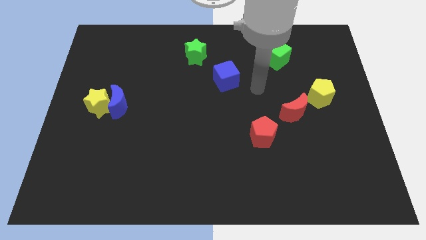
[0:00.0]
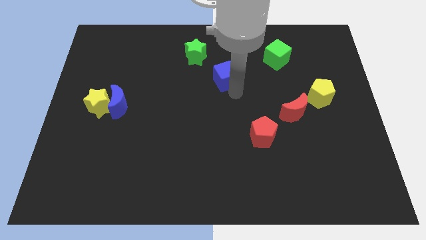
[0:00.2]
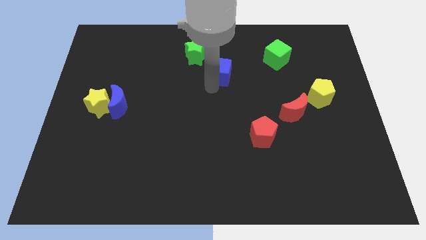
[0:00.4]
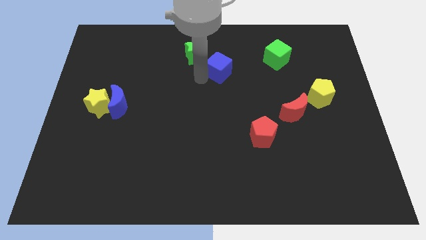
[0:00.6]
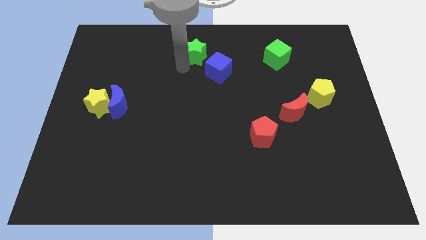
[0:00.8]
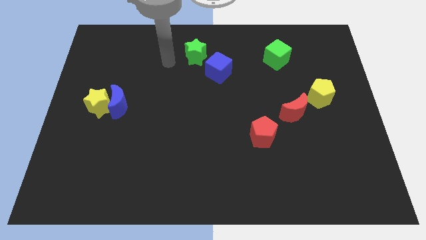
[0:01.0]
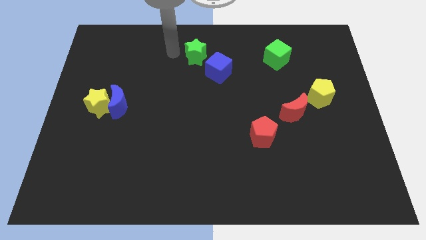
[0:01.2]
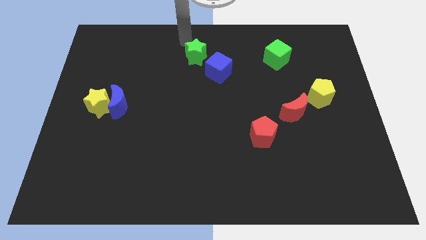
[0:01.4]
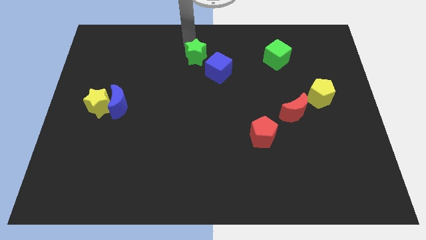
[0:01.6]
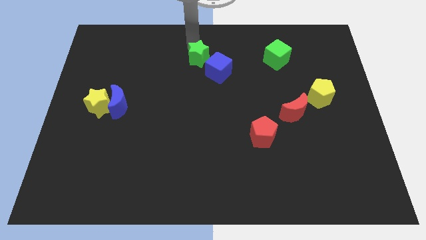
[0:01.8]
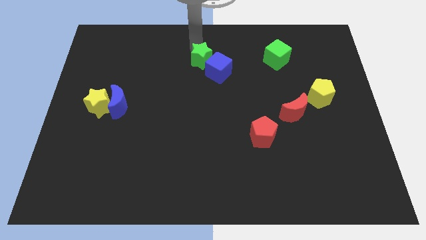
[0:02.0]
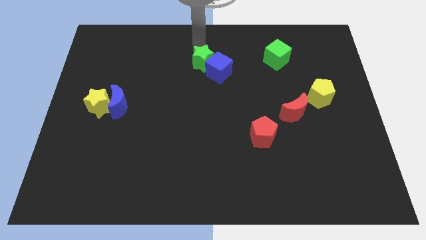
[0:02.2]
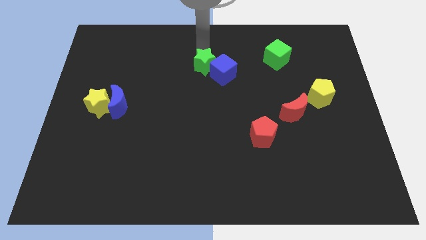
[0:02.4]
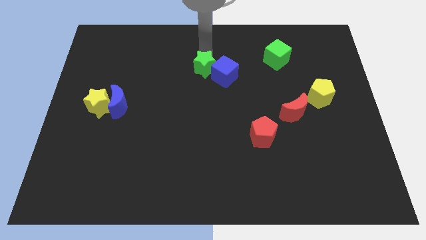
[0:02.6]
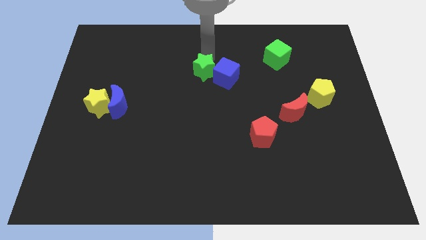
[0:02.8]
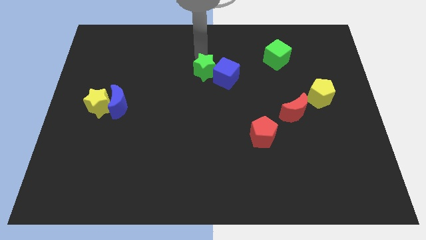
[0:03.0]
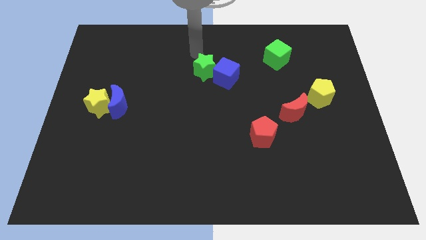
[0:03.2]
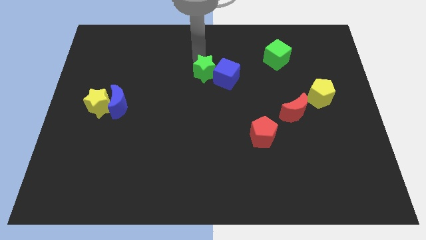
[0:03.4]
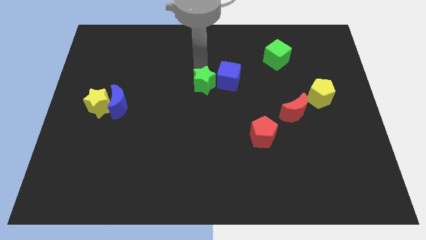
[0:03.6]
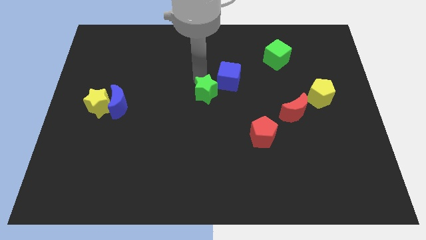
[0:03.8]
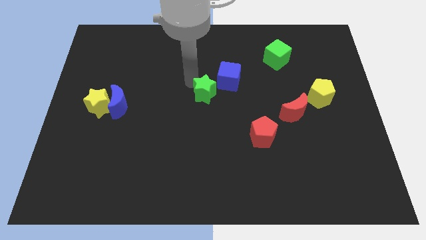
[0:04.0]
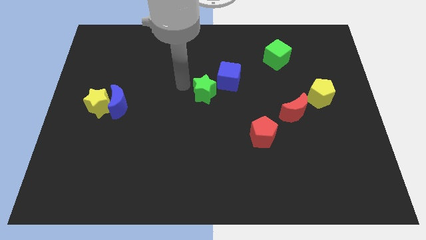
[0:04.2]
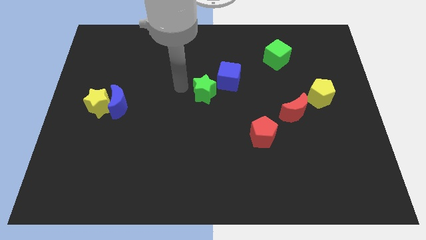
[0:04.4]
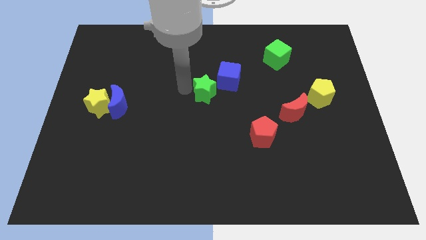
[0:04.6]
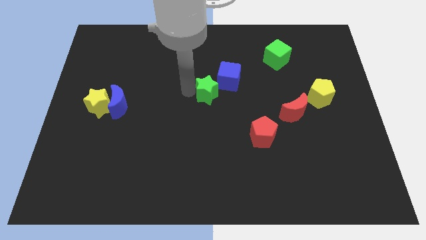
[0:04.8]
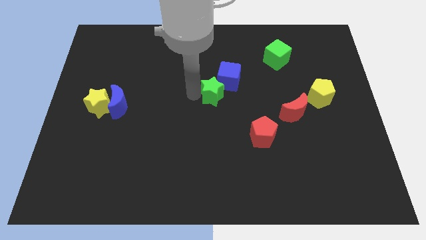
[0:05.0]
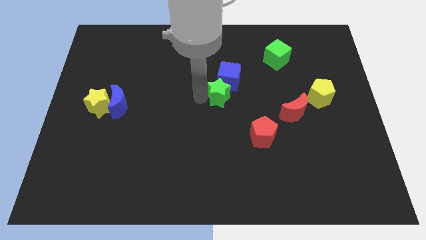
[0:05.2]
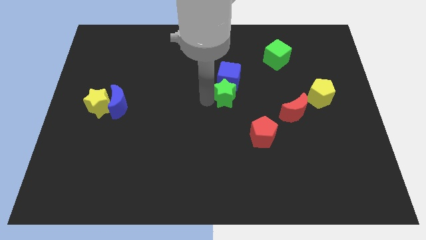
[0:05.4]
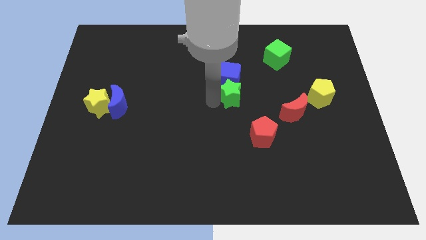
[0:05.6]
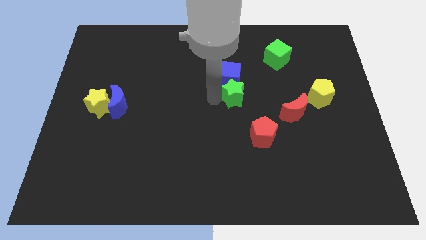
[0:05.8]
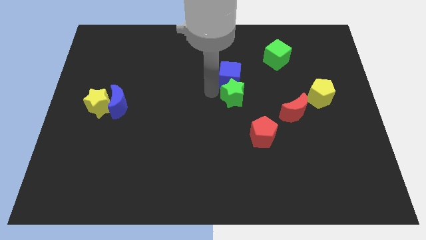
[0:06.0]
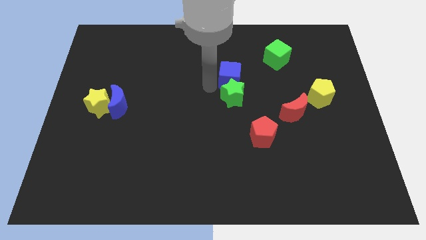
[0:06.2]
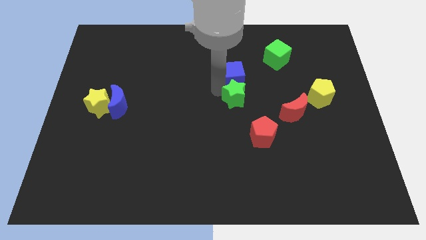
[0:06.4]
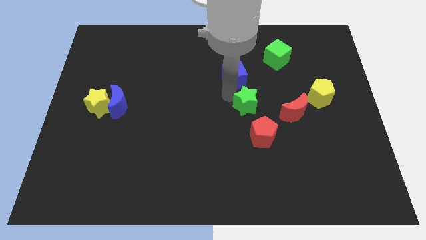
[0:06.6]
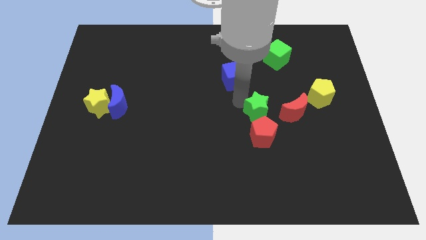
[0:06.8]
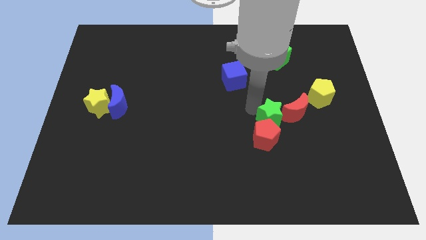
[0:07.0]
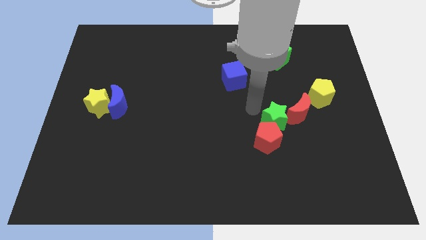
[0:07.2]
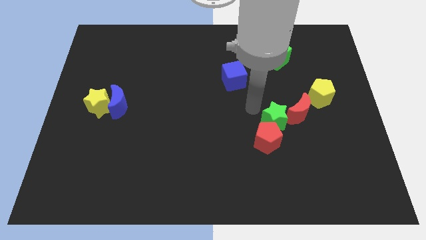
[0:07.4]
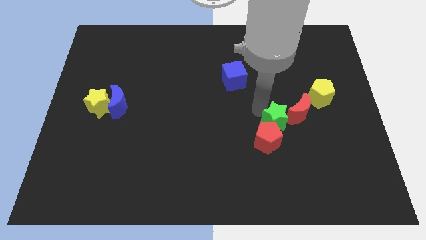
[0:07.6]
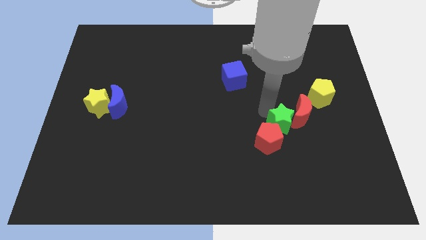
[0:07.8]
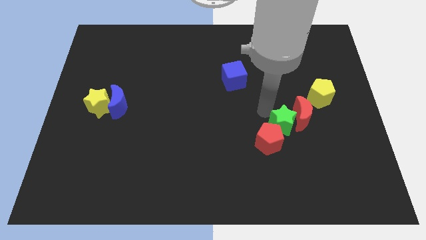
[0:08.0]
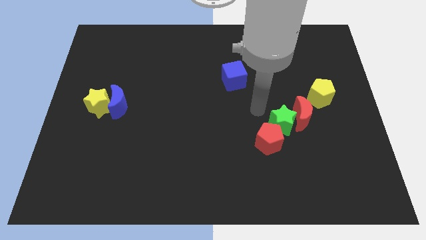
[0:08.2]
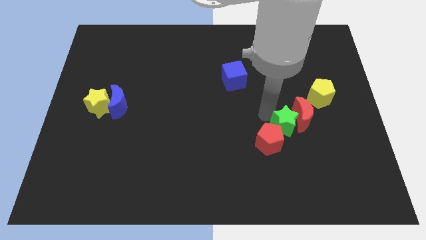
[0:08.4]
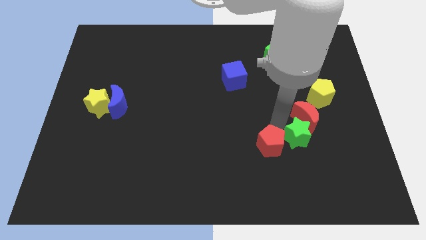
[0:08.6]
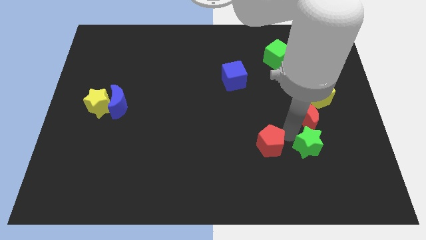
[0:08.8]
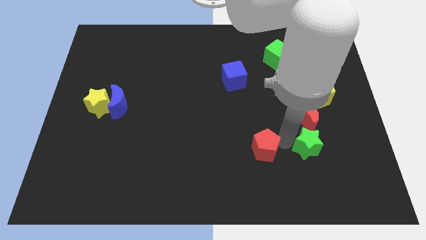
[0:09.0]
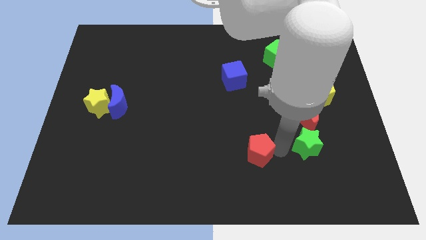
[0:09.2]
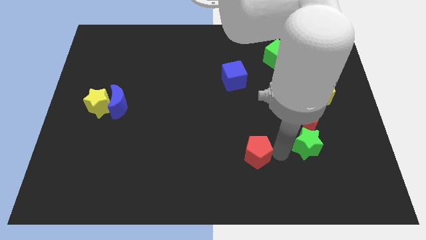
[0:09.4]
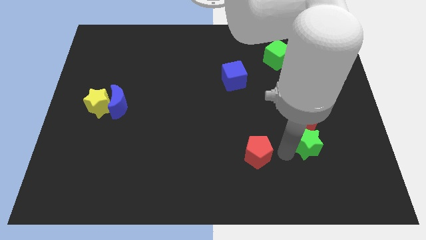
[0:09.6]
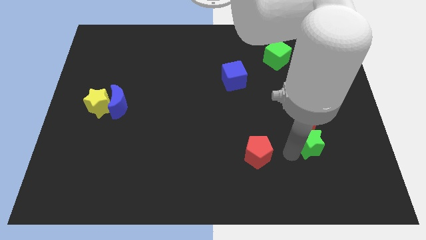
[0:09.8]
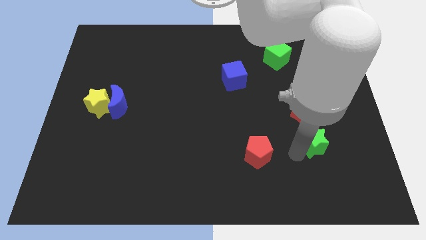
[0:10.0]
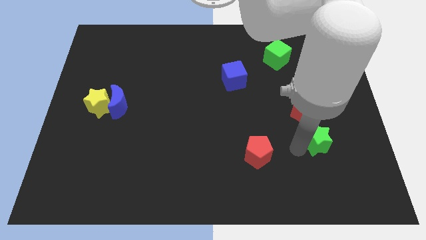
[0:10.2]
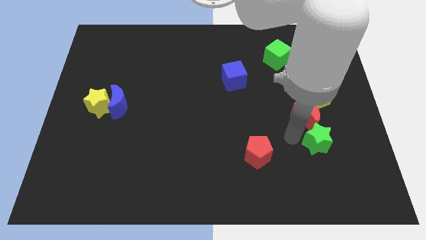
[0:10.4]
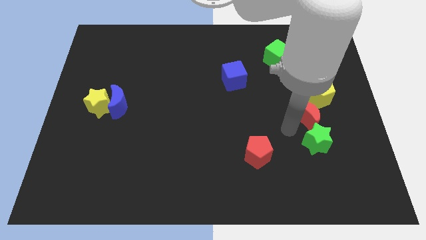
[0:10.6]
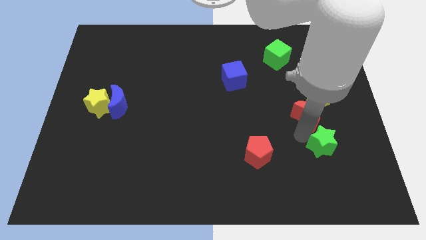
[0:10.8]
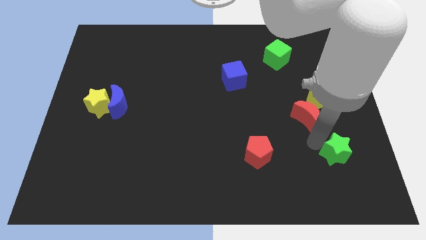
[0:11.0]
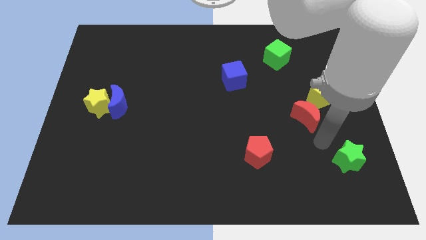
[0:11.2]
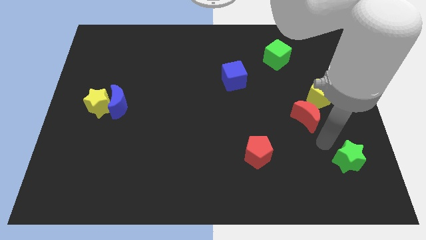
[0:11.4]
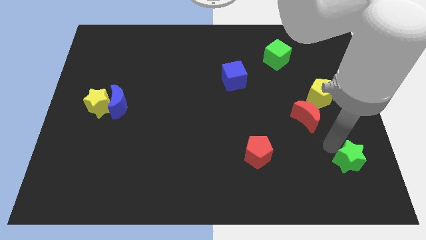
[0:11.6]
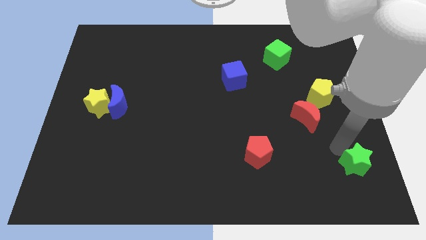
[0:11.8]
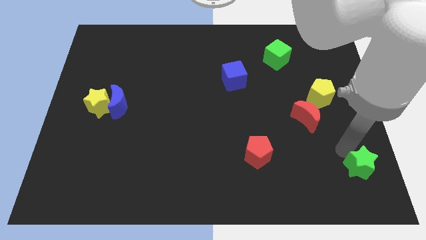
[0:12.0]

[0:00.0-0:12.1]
slide the green star to the bottom right corner

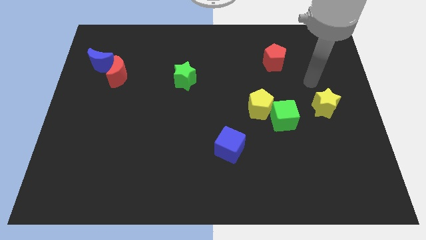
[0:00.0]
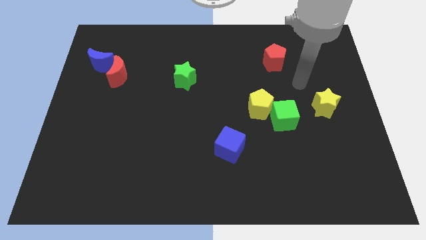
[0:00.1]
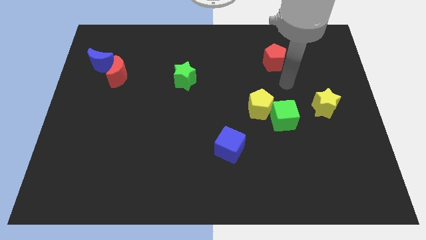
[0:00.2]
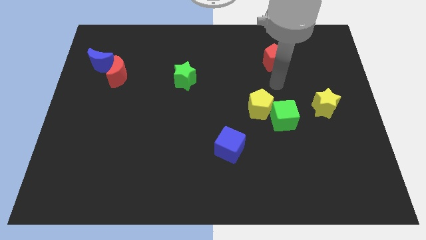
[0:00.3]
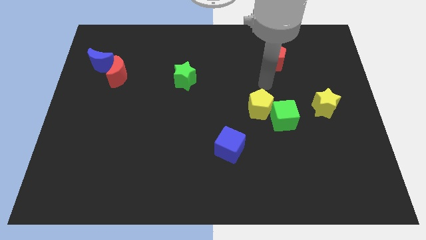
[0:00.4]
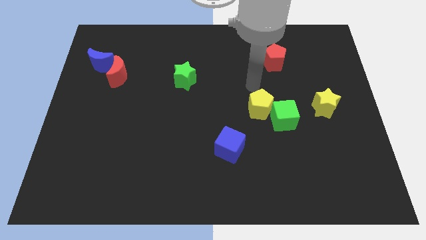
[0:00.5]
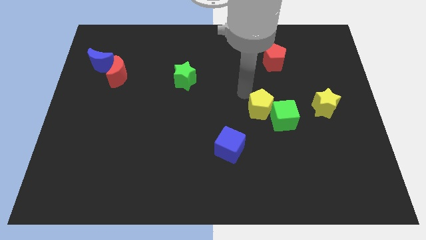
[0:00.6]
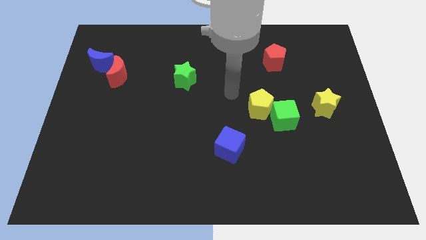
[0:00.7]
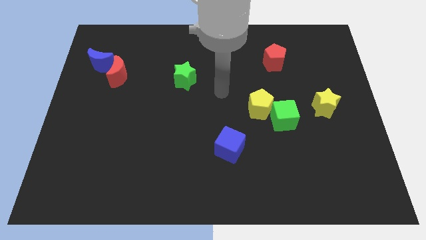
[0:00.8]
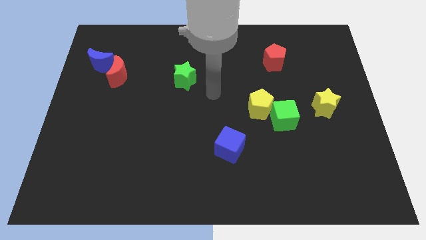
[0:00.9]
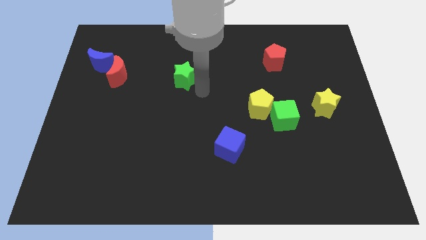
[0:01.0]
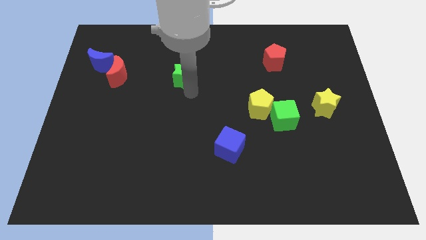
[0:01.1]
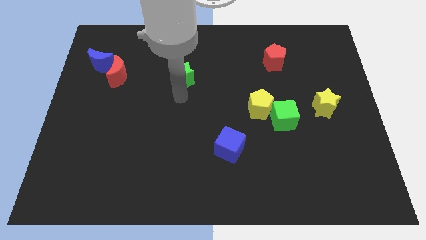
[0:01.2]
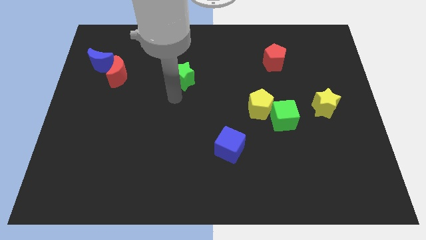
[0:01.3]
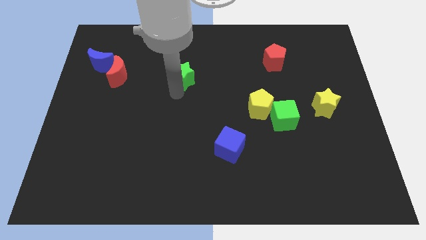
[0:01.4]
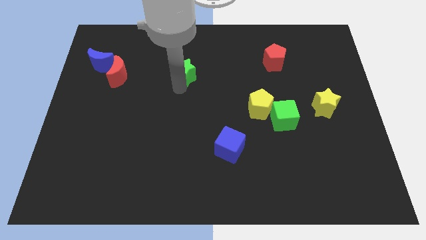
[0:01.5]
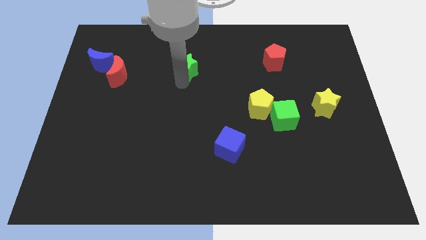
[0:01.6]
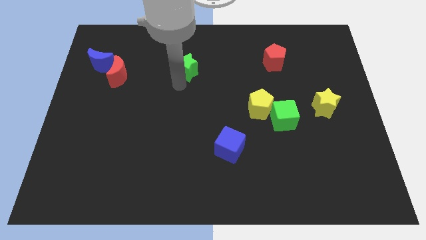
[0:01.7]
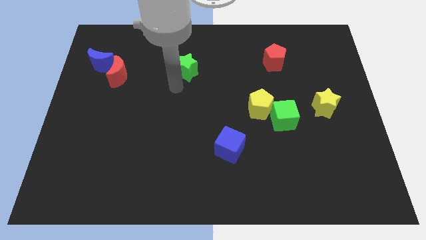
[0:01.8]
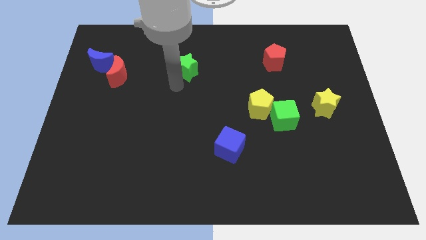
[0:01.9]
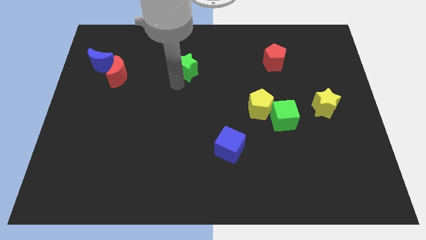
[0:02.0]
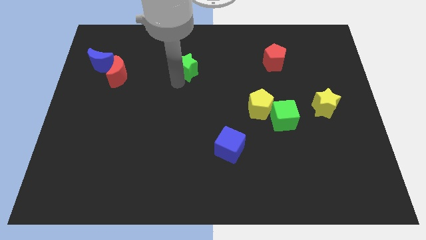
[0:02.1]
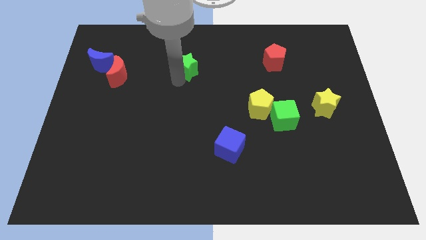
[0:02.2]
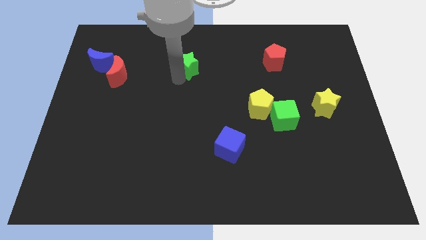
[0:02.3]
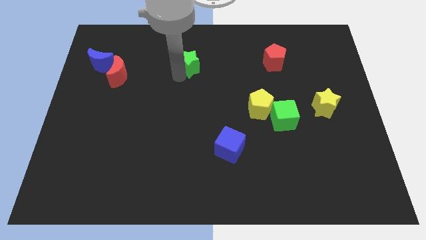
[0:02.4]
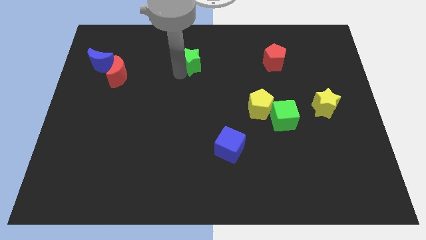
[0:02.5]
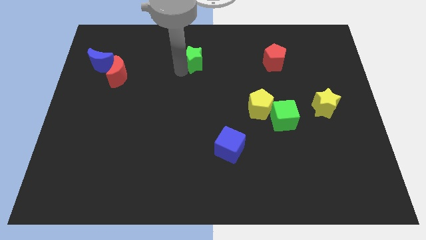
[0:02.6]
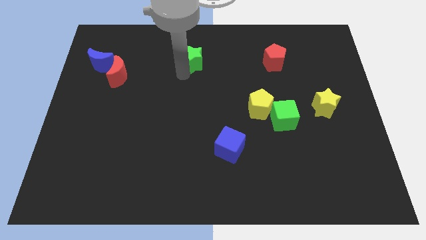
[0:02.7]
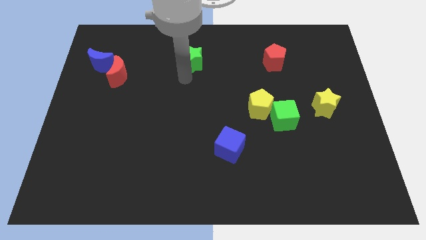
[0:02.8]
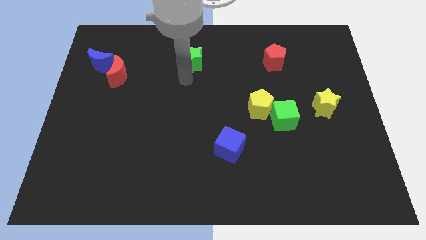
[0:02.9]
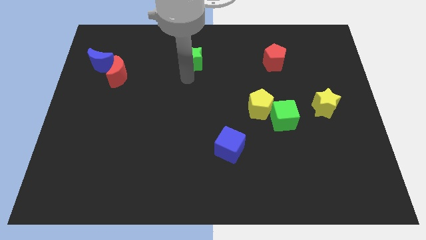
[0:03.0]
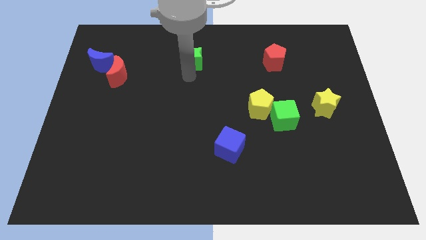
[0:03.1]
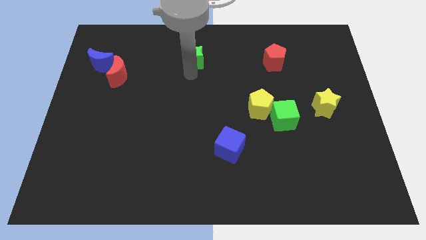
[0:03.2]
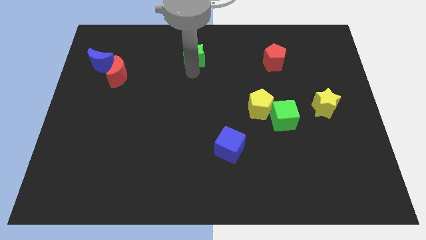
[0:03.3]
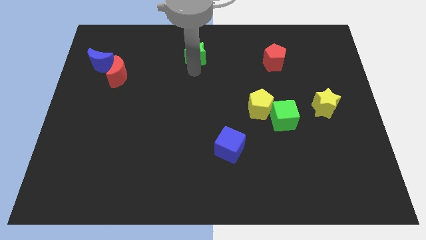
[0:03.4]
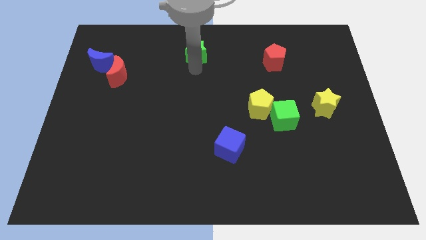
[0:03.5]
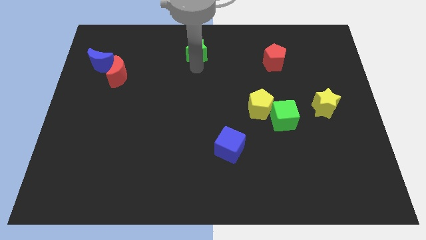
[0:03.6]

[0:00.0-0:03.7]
push the green star to the towards your base
